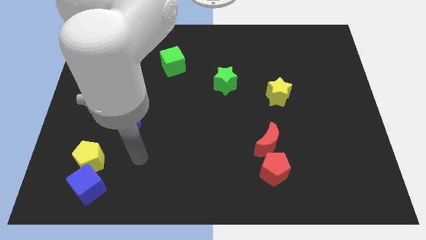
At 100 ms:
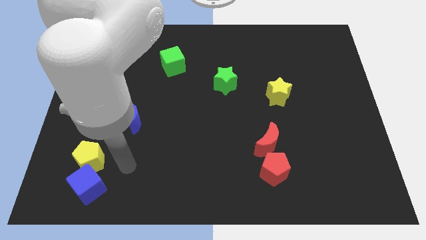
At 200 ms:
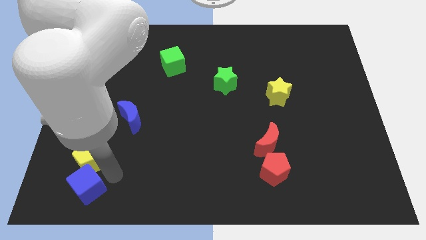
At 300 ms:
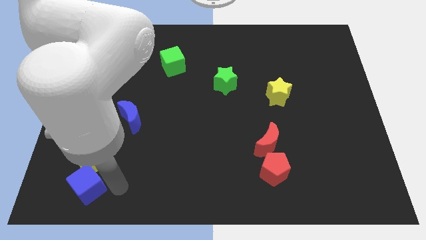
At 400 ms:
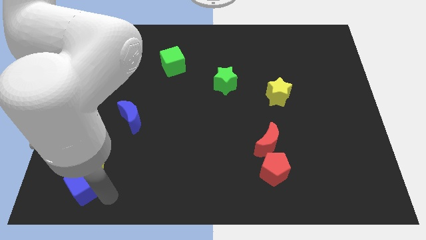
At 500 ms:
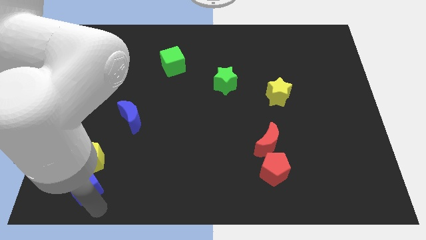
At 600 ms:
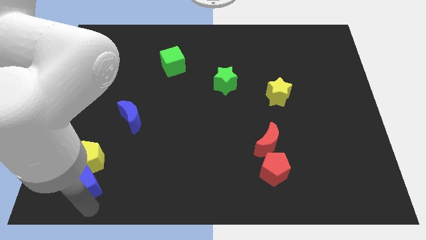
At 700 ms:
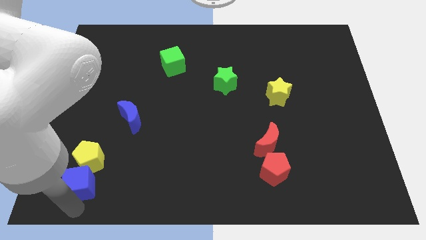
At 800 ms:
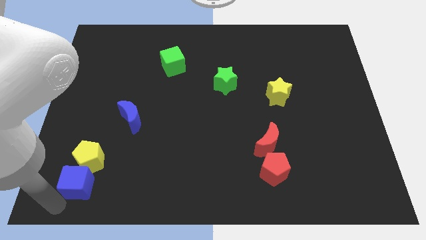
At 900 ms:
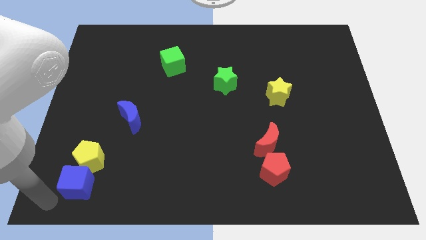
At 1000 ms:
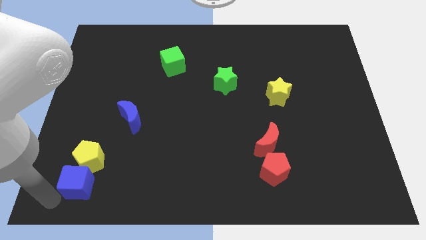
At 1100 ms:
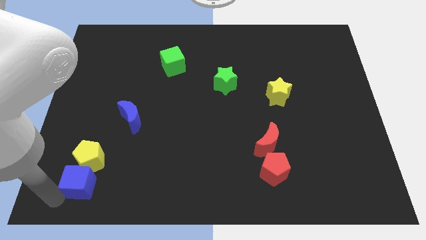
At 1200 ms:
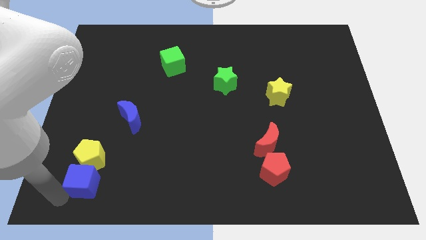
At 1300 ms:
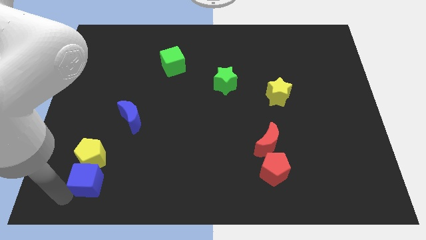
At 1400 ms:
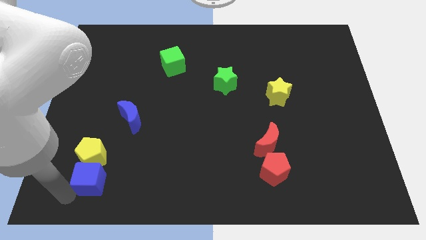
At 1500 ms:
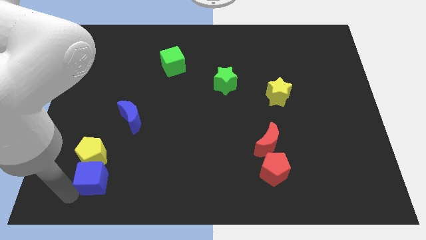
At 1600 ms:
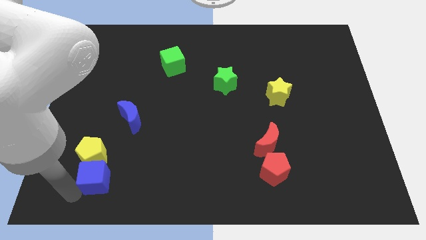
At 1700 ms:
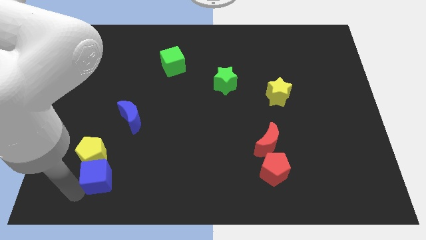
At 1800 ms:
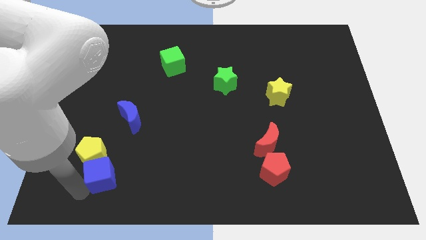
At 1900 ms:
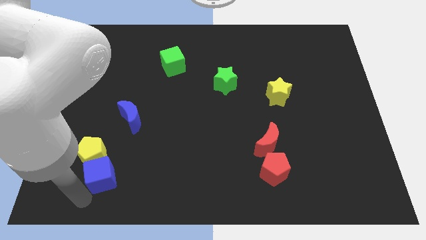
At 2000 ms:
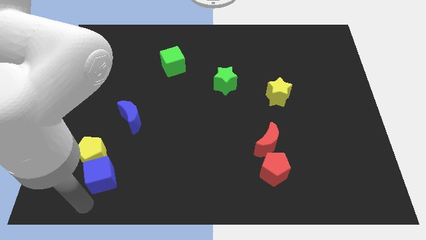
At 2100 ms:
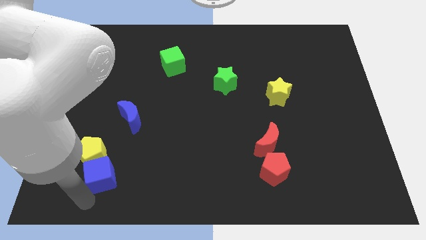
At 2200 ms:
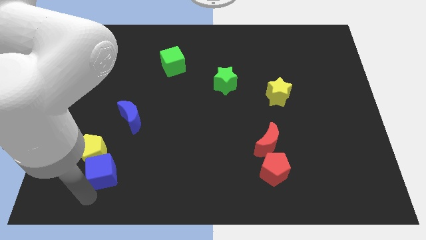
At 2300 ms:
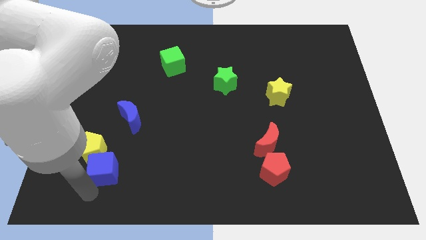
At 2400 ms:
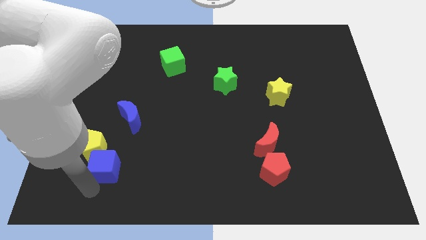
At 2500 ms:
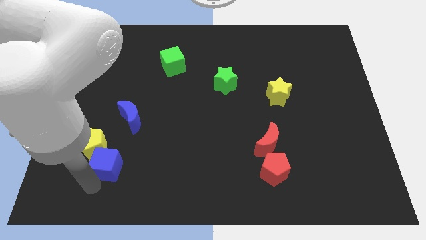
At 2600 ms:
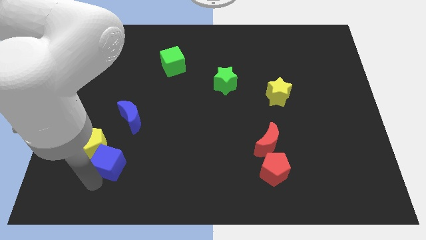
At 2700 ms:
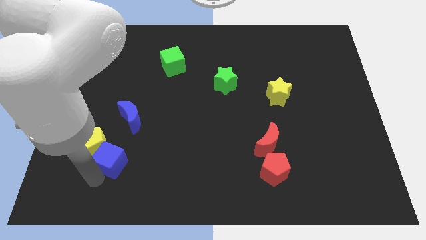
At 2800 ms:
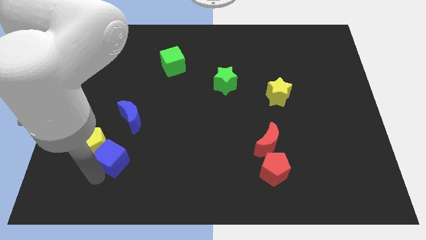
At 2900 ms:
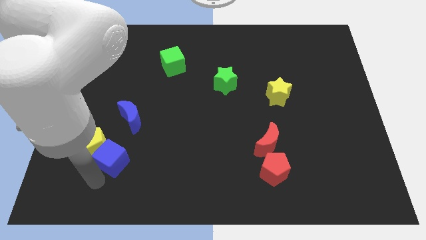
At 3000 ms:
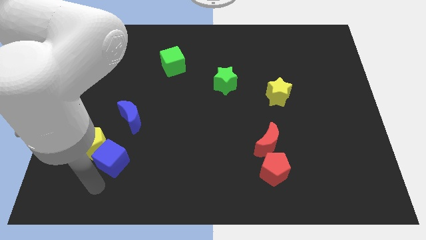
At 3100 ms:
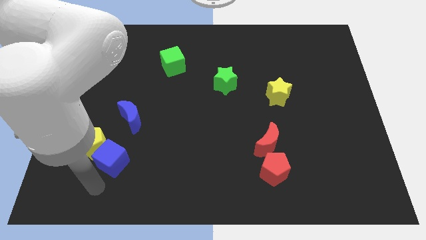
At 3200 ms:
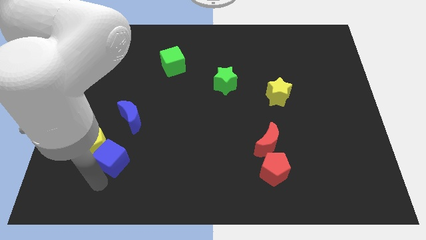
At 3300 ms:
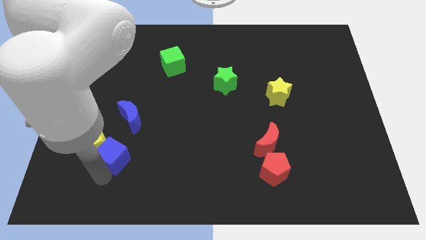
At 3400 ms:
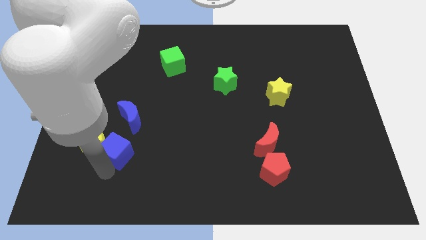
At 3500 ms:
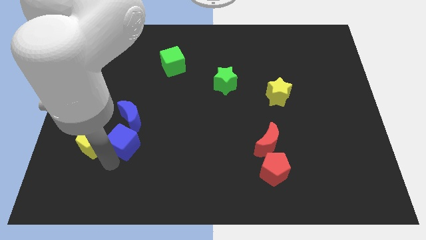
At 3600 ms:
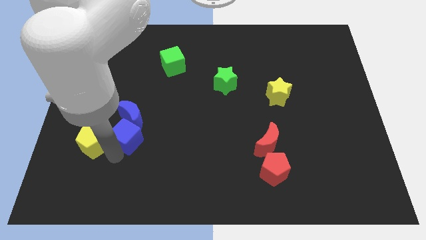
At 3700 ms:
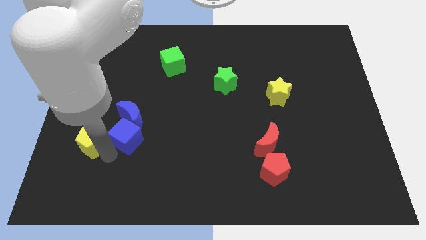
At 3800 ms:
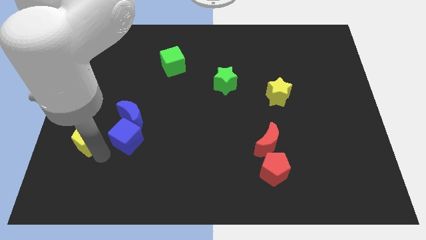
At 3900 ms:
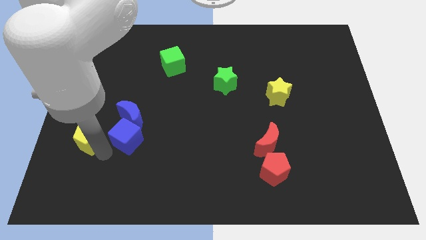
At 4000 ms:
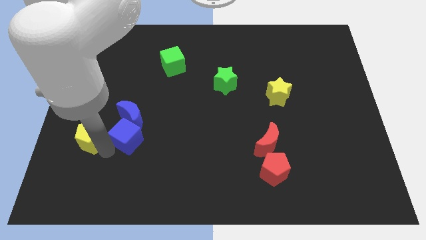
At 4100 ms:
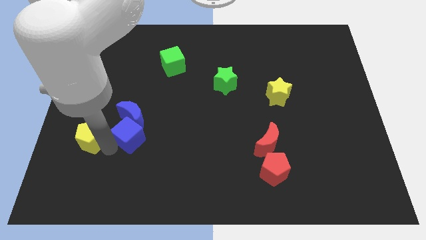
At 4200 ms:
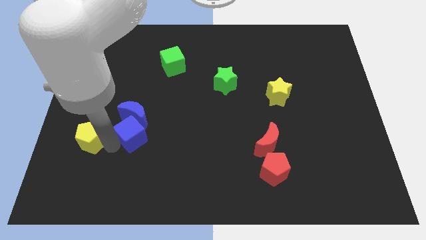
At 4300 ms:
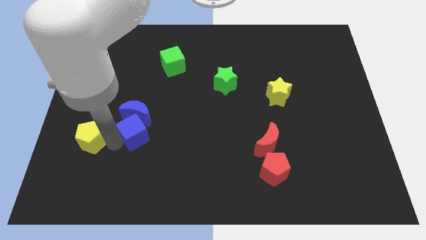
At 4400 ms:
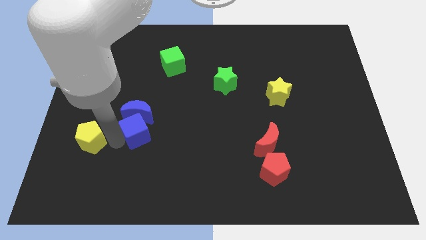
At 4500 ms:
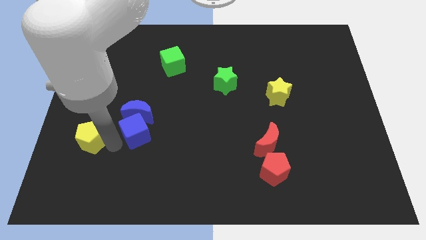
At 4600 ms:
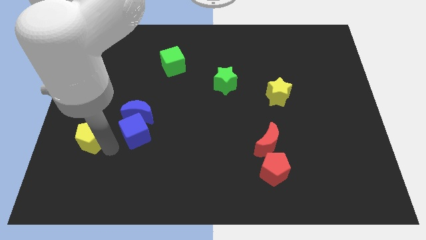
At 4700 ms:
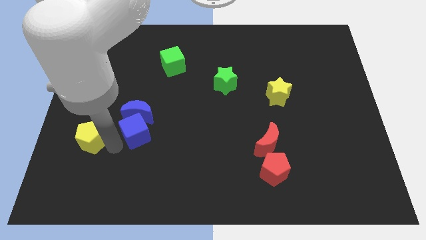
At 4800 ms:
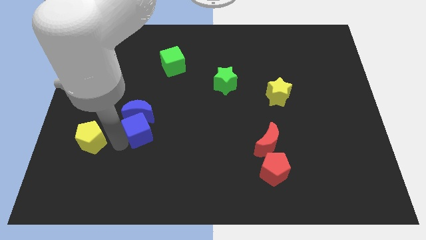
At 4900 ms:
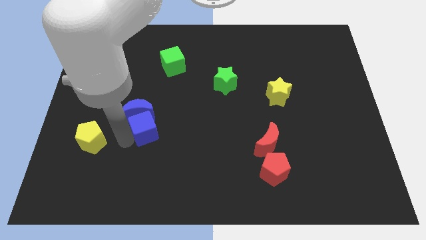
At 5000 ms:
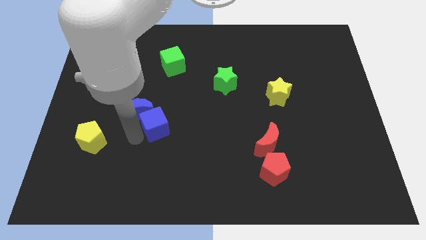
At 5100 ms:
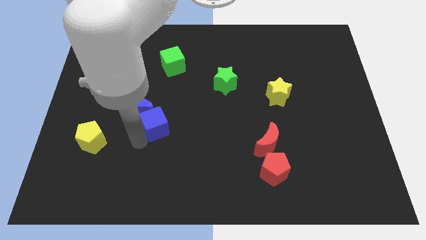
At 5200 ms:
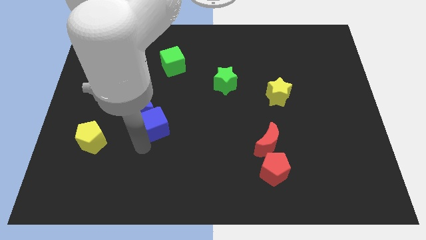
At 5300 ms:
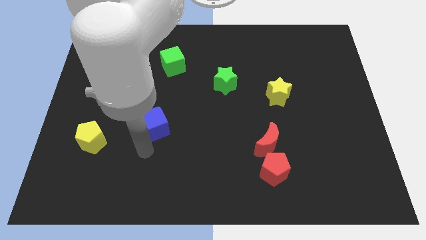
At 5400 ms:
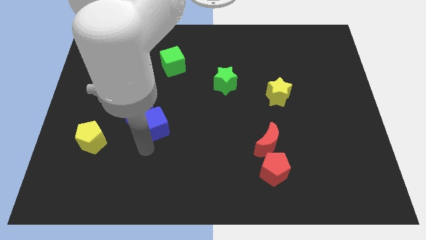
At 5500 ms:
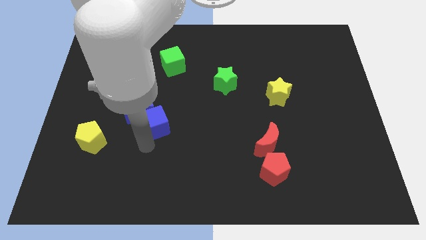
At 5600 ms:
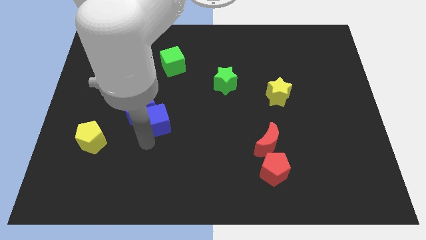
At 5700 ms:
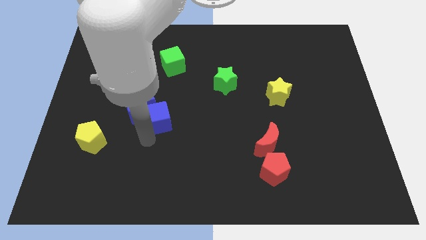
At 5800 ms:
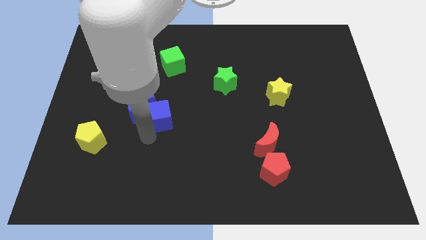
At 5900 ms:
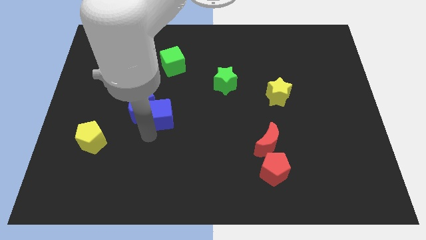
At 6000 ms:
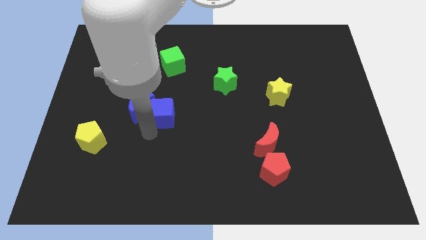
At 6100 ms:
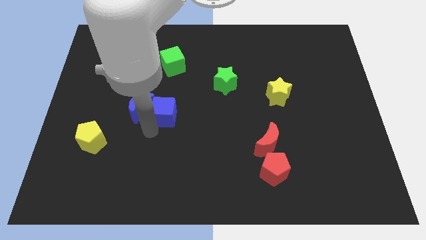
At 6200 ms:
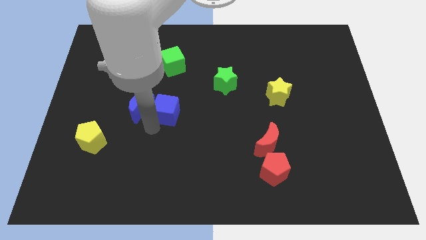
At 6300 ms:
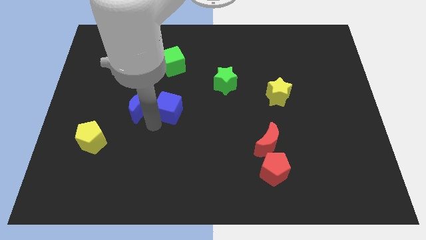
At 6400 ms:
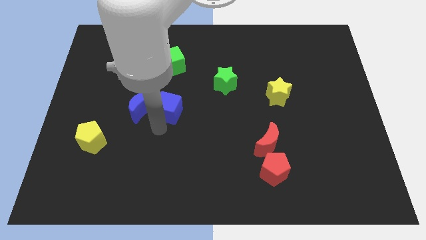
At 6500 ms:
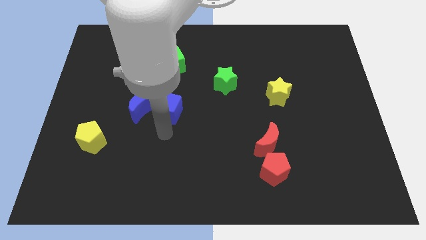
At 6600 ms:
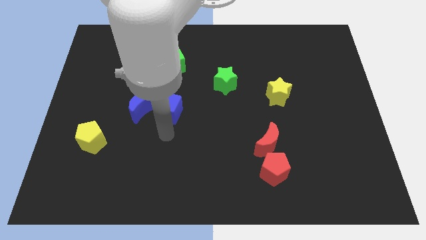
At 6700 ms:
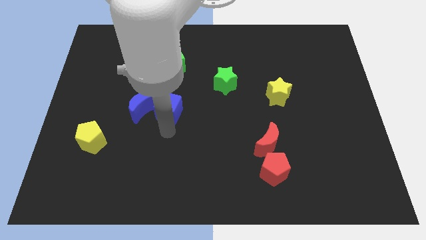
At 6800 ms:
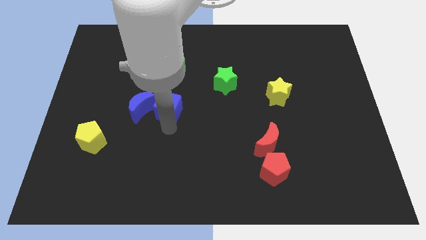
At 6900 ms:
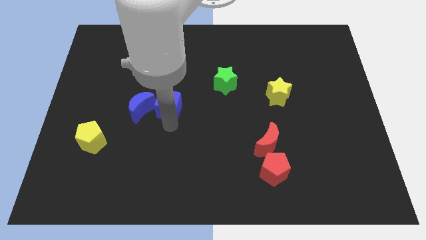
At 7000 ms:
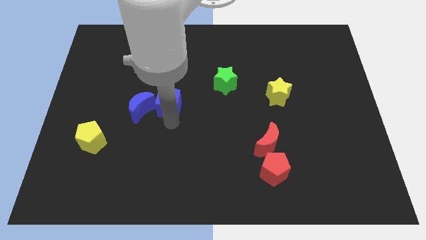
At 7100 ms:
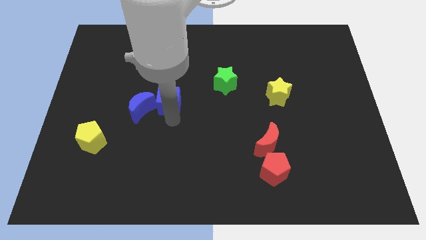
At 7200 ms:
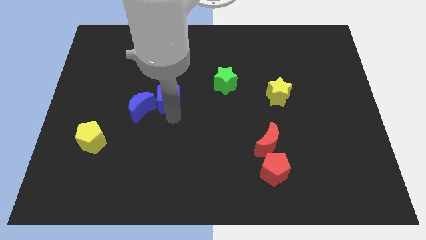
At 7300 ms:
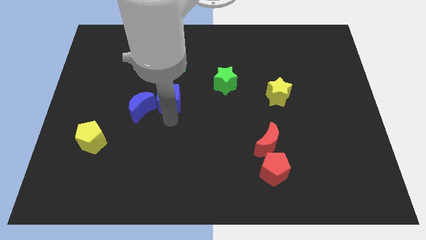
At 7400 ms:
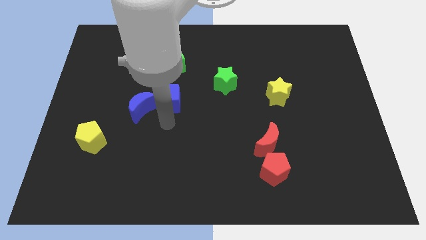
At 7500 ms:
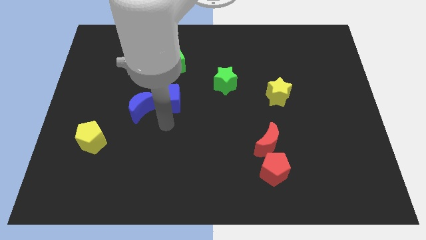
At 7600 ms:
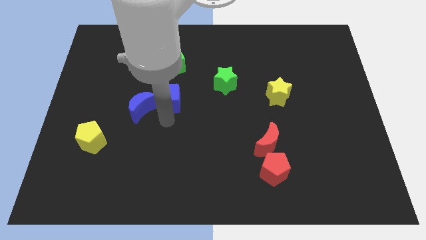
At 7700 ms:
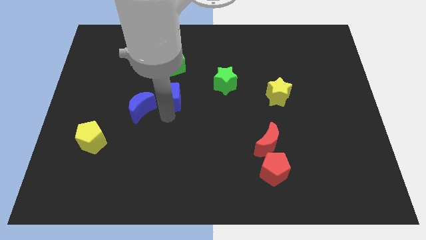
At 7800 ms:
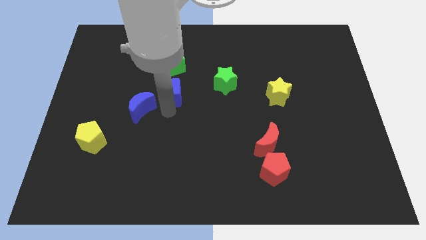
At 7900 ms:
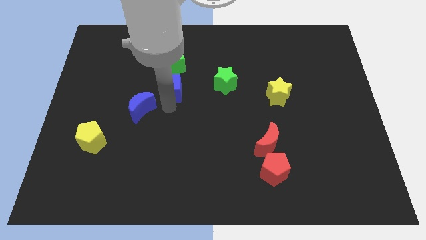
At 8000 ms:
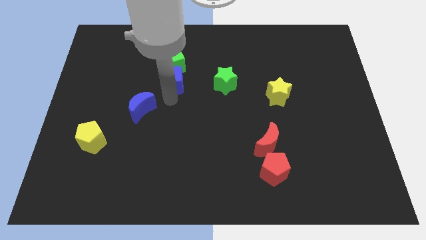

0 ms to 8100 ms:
push the blue cube close to the green cube
